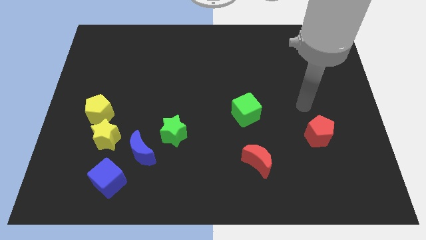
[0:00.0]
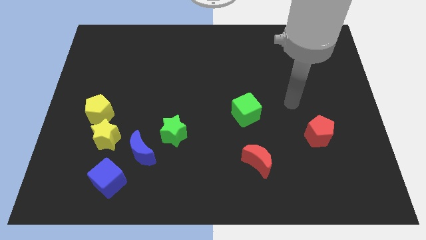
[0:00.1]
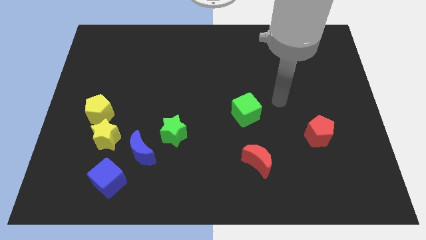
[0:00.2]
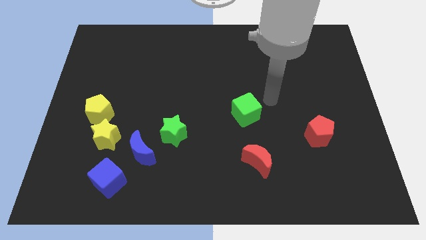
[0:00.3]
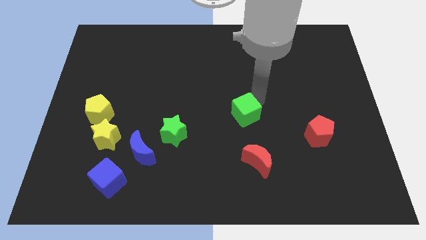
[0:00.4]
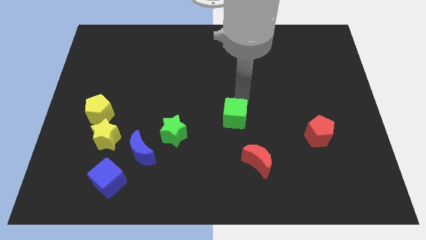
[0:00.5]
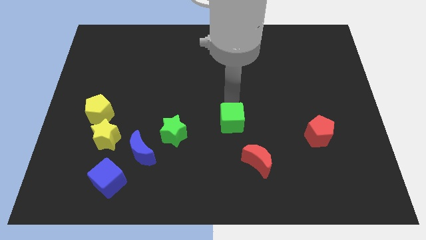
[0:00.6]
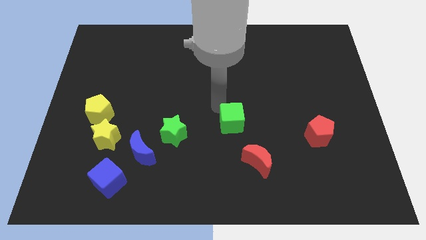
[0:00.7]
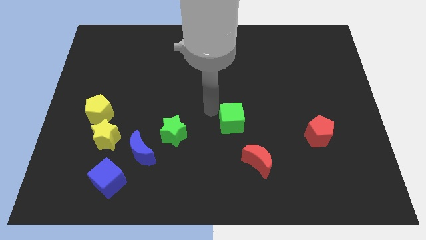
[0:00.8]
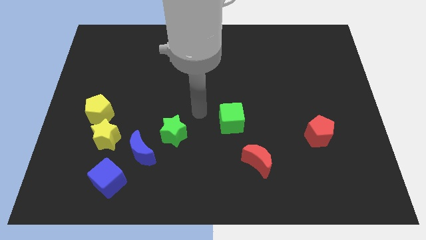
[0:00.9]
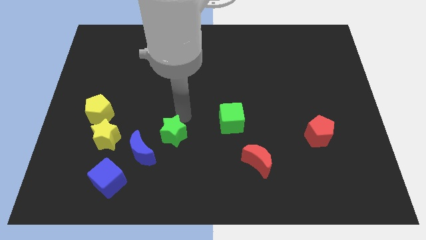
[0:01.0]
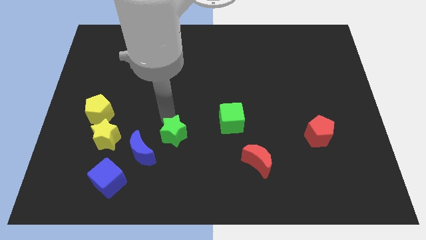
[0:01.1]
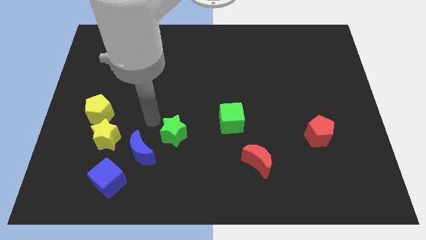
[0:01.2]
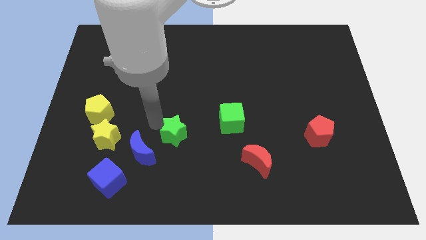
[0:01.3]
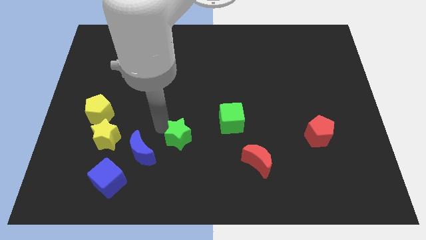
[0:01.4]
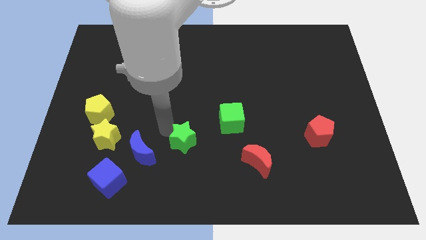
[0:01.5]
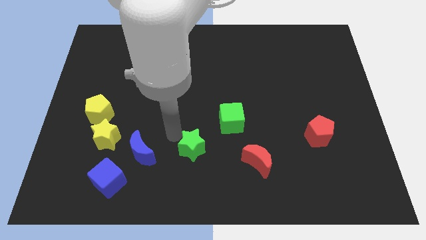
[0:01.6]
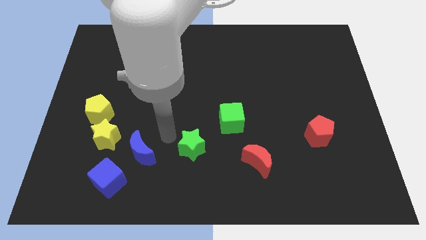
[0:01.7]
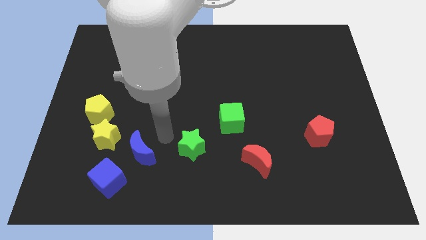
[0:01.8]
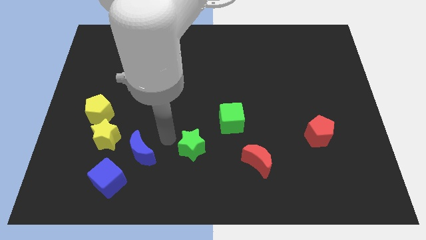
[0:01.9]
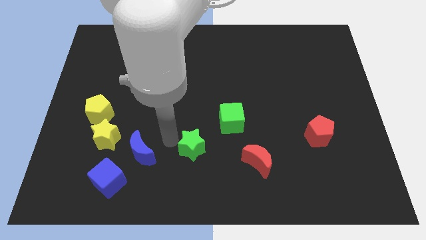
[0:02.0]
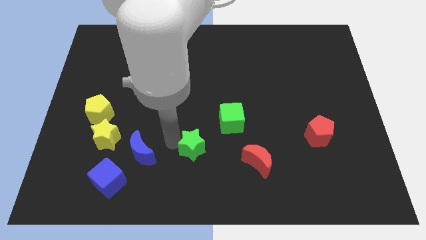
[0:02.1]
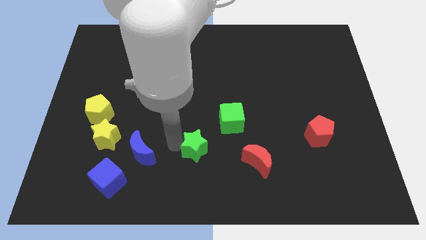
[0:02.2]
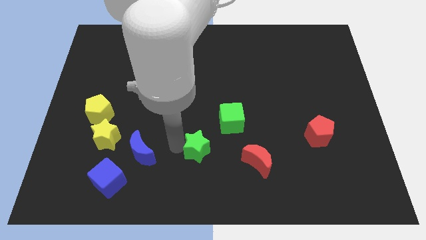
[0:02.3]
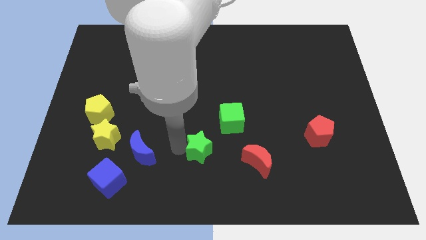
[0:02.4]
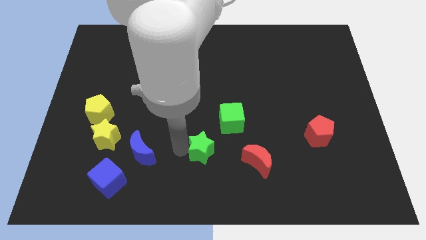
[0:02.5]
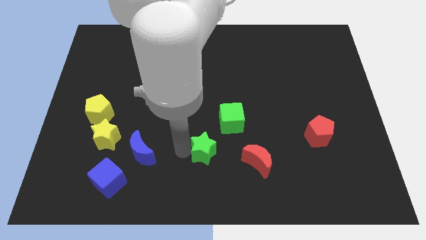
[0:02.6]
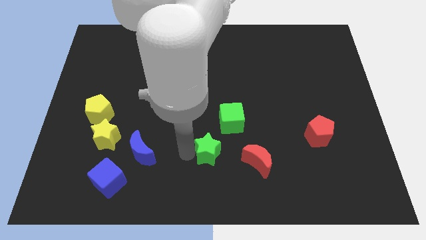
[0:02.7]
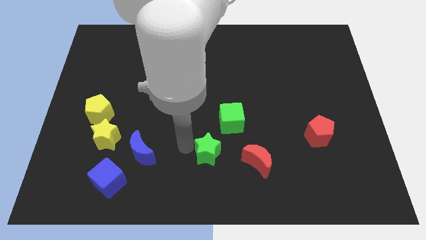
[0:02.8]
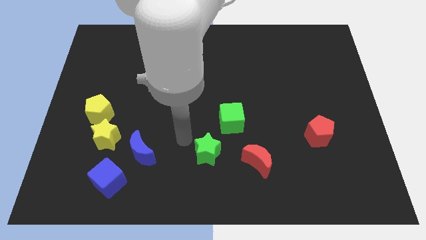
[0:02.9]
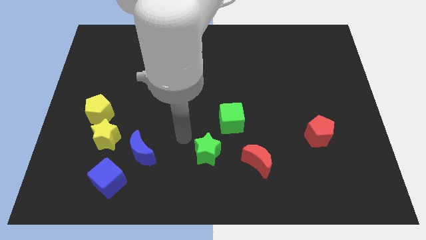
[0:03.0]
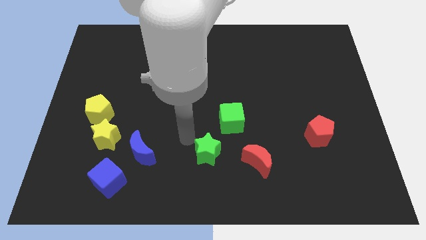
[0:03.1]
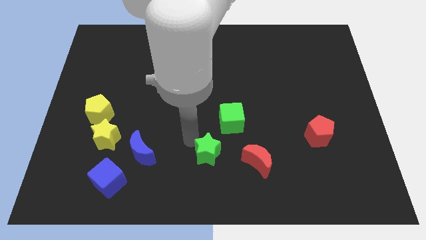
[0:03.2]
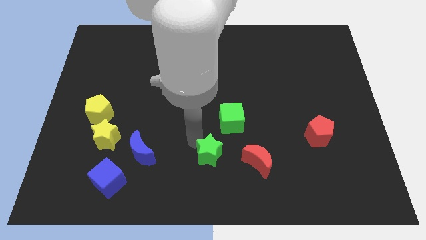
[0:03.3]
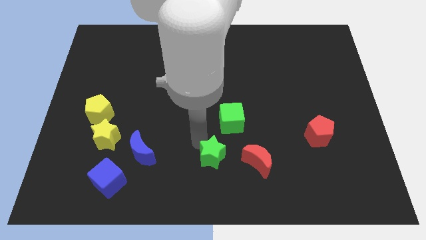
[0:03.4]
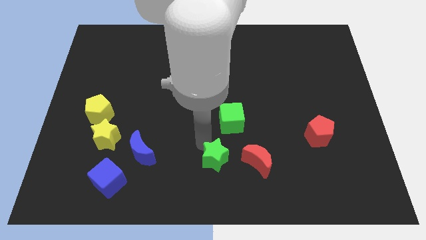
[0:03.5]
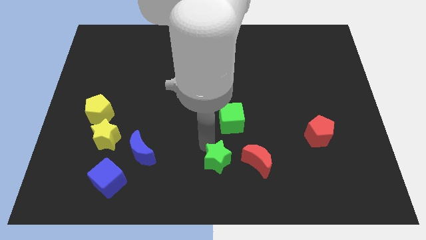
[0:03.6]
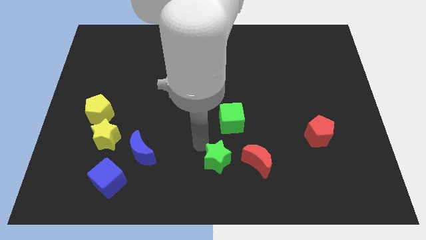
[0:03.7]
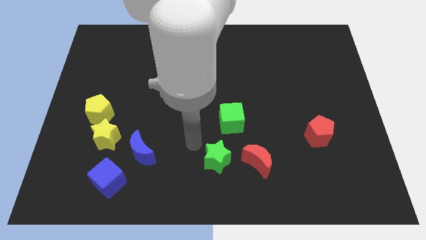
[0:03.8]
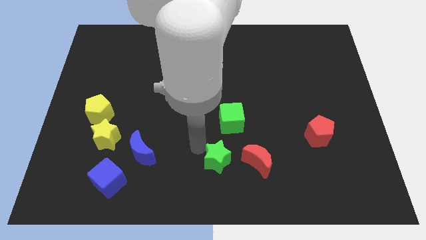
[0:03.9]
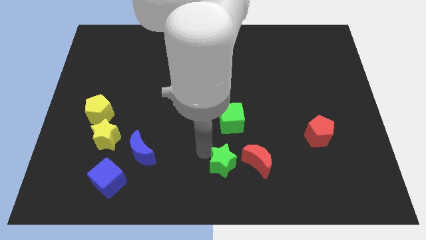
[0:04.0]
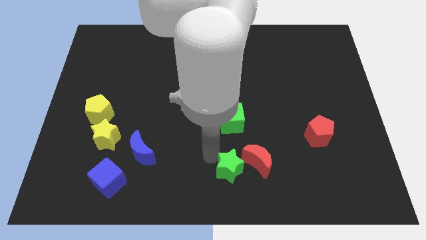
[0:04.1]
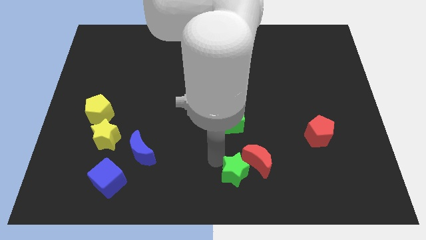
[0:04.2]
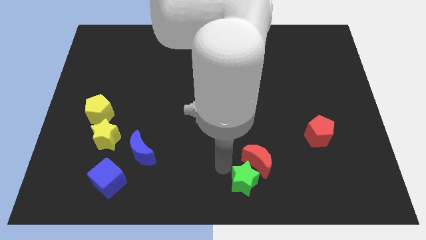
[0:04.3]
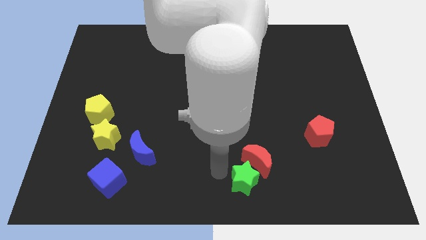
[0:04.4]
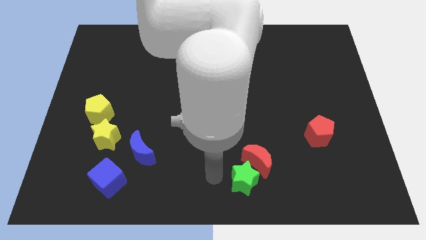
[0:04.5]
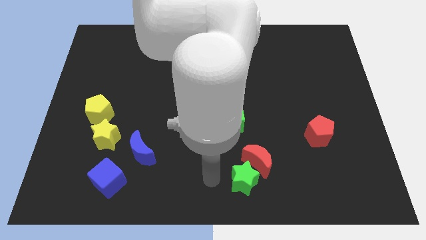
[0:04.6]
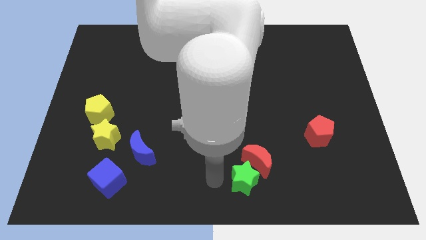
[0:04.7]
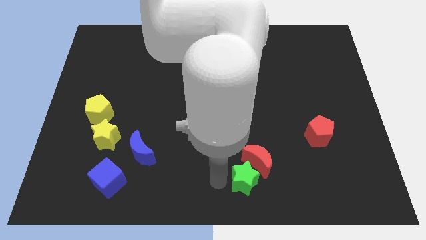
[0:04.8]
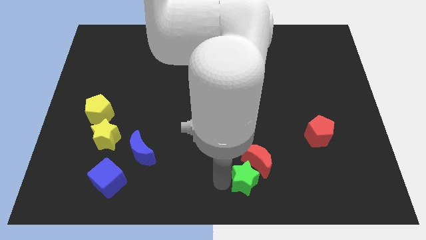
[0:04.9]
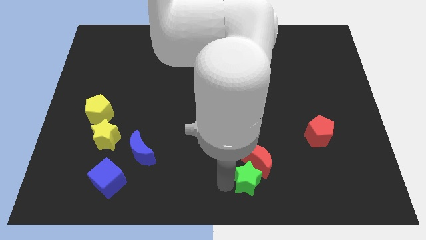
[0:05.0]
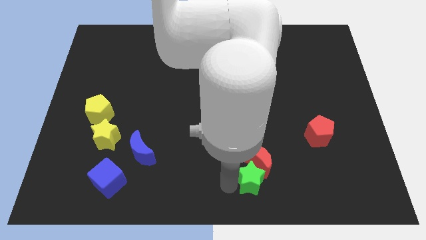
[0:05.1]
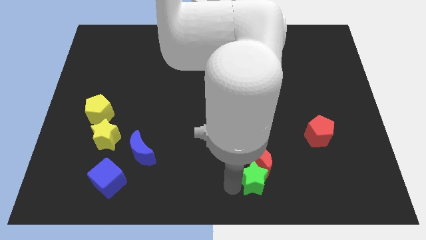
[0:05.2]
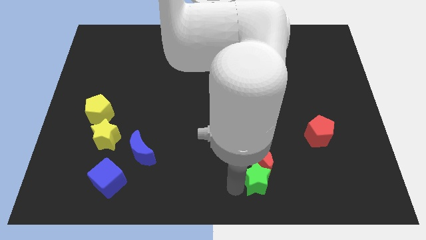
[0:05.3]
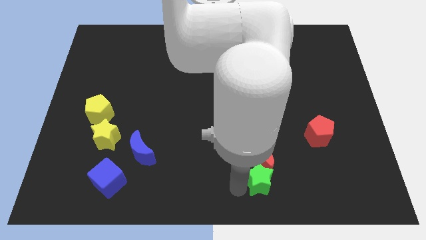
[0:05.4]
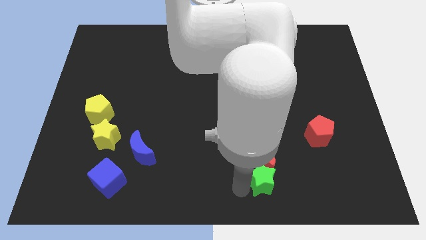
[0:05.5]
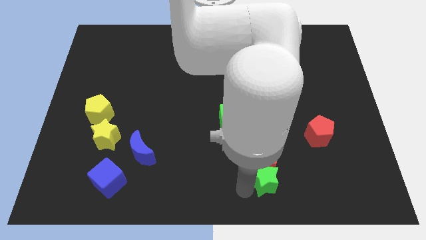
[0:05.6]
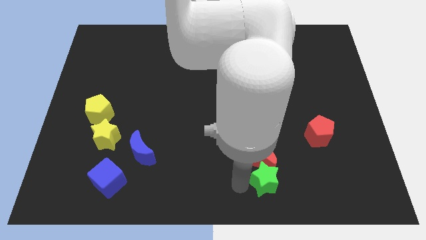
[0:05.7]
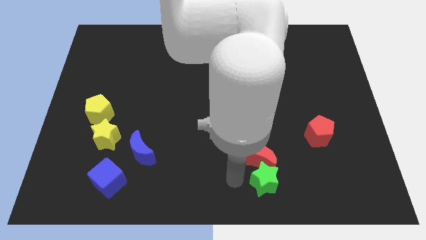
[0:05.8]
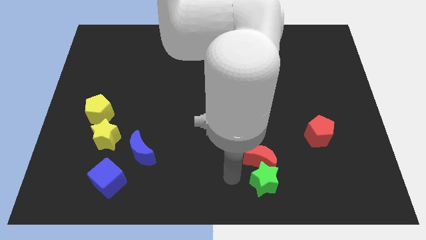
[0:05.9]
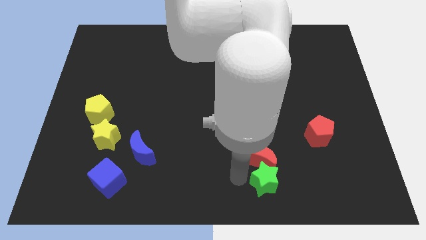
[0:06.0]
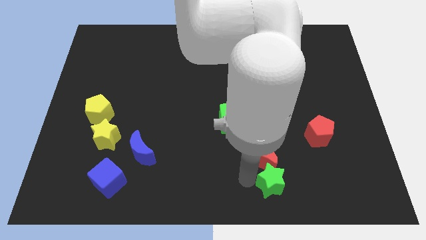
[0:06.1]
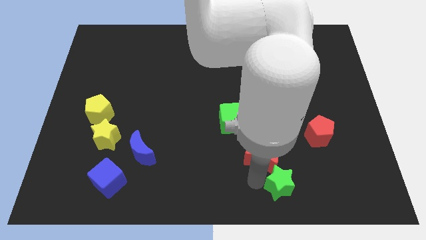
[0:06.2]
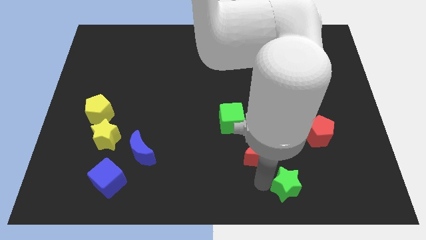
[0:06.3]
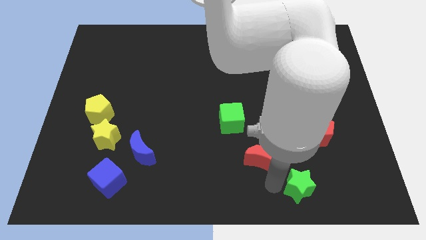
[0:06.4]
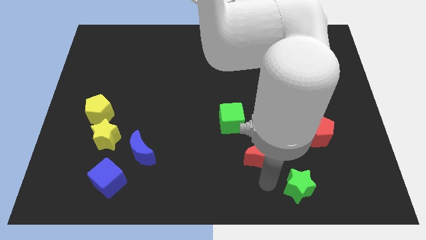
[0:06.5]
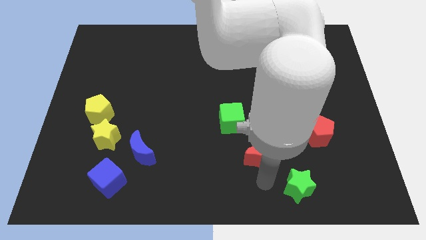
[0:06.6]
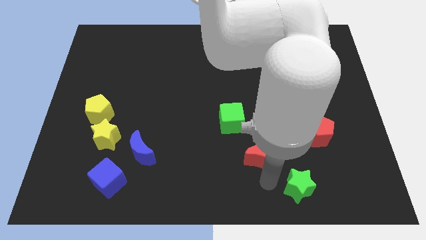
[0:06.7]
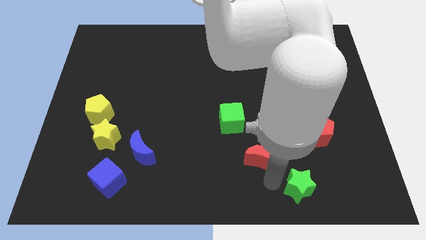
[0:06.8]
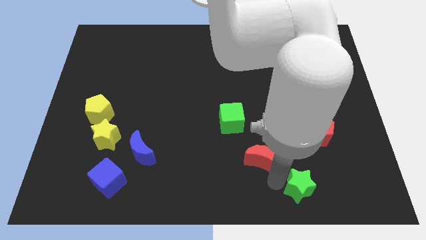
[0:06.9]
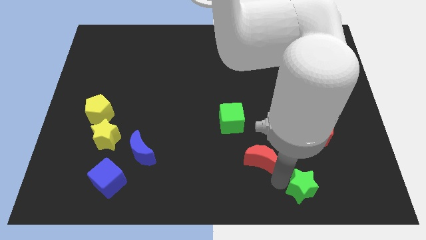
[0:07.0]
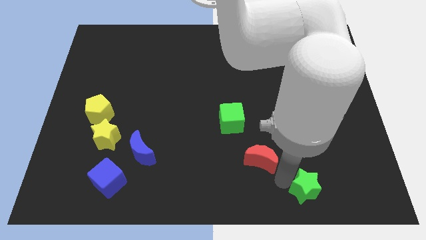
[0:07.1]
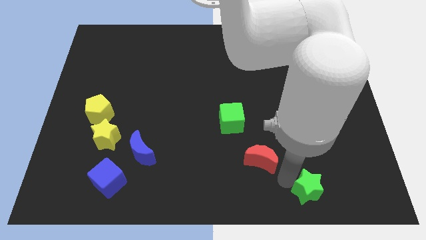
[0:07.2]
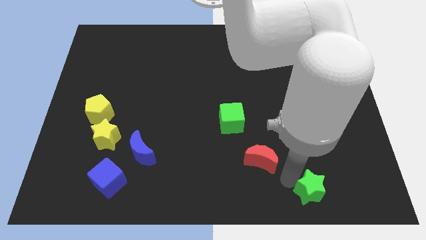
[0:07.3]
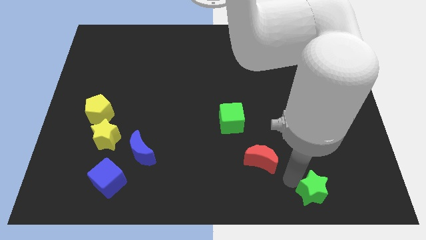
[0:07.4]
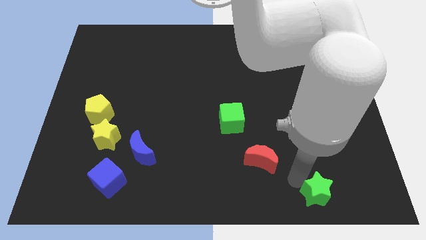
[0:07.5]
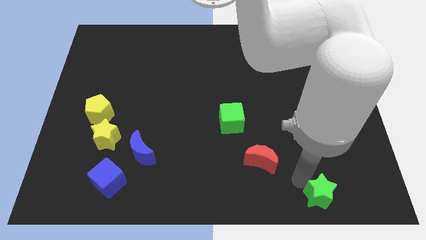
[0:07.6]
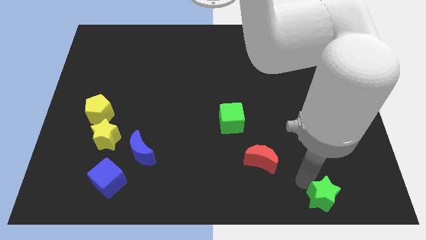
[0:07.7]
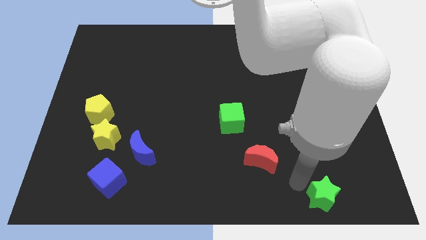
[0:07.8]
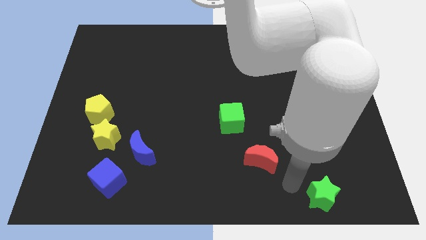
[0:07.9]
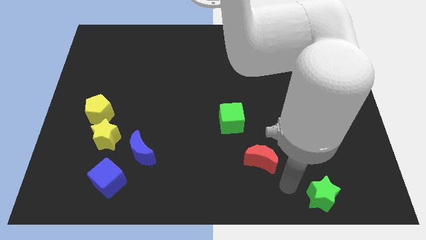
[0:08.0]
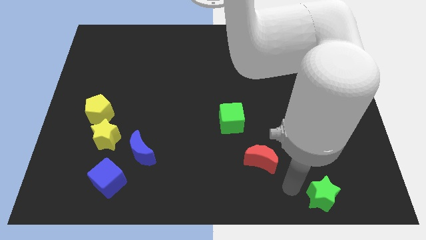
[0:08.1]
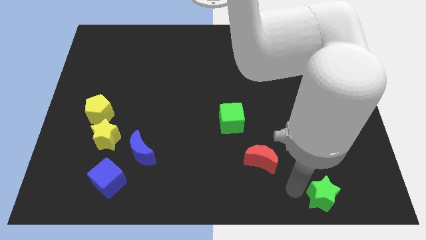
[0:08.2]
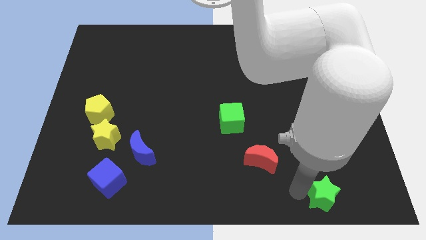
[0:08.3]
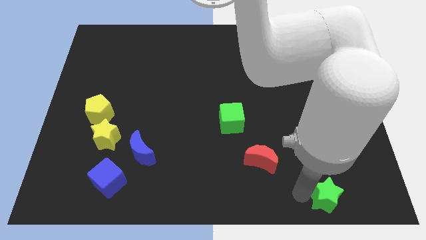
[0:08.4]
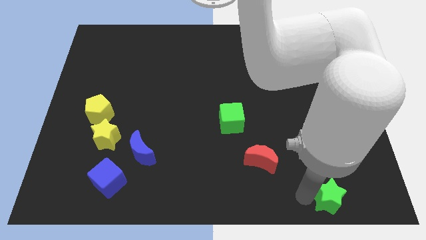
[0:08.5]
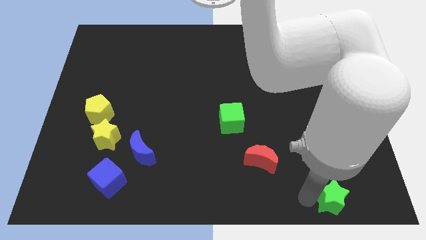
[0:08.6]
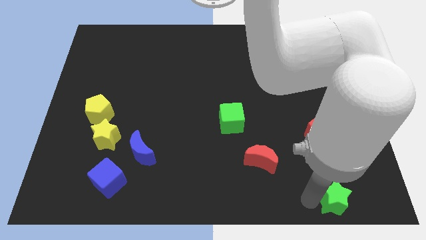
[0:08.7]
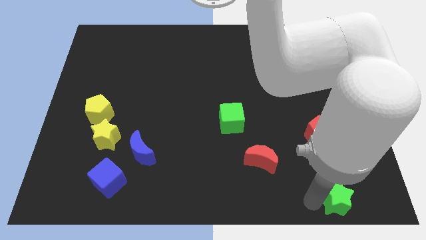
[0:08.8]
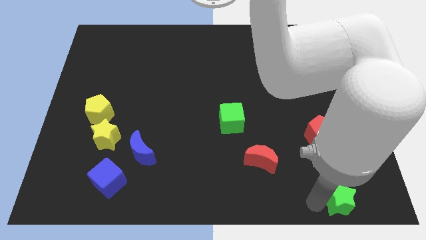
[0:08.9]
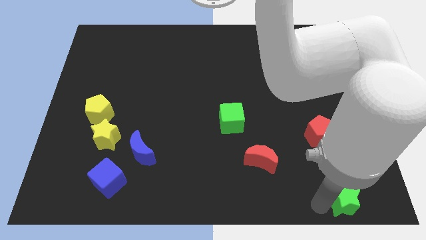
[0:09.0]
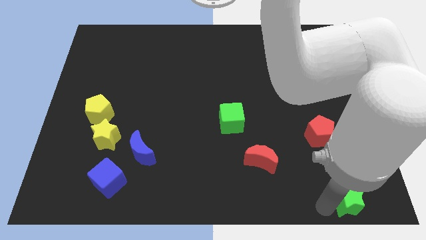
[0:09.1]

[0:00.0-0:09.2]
move the green star to the bottom right
